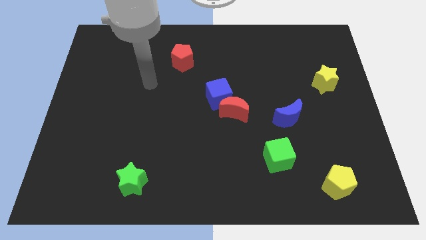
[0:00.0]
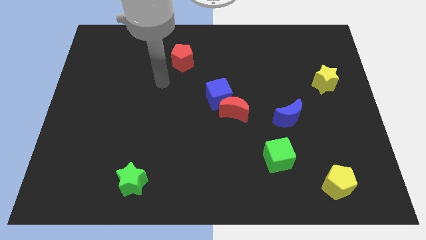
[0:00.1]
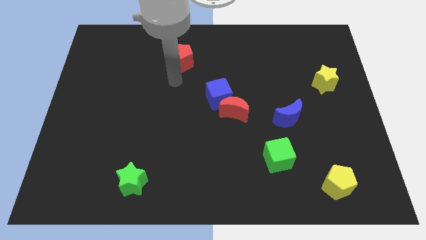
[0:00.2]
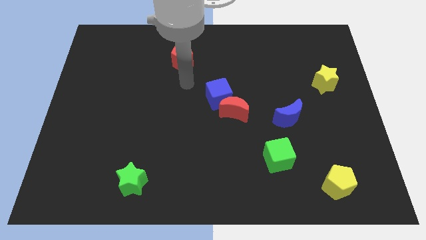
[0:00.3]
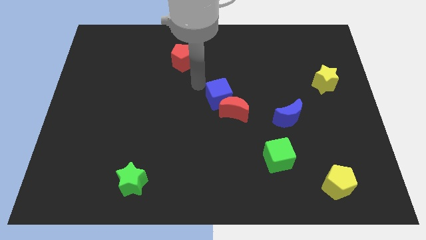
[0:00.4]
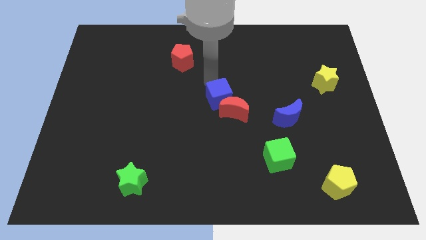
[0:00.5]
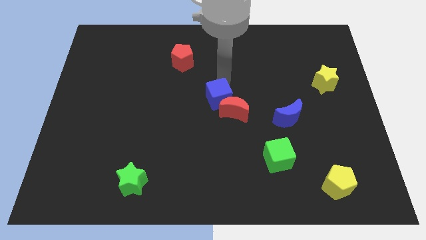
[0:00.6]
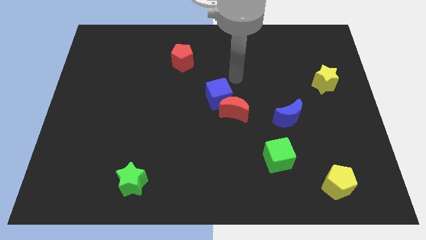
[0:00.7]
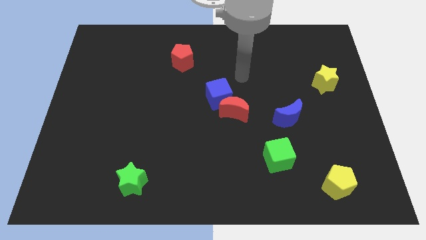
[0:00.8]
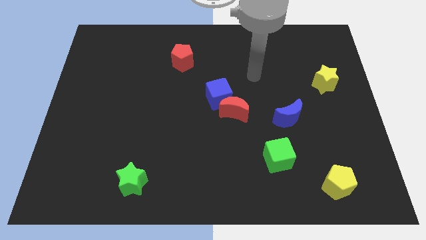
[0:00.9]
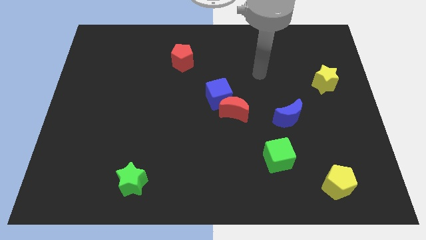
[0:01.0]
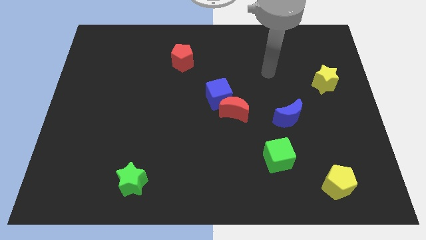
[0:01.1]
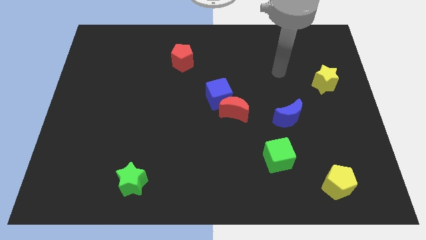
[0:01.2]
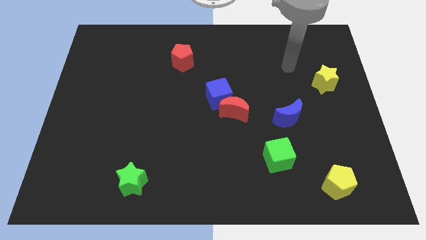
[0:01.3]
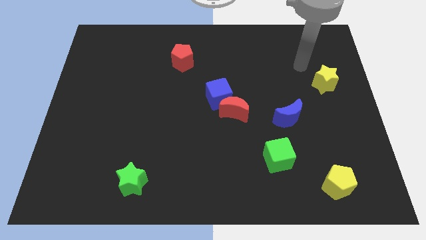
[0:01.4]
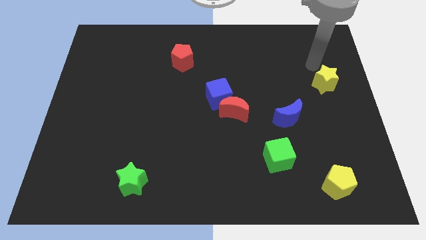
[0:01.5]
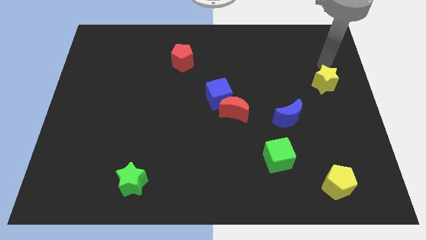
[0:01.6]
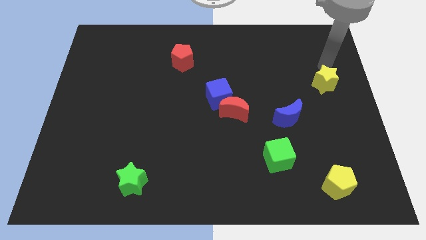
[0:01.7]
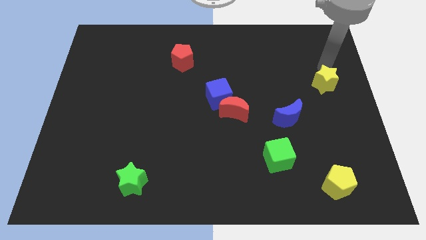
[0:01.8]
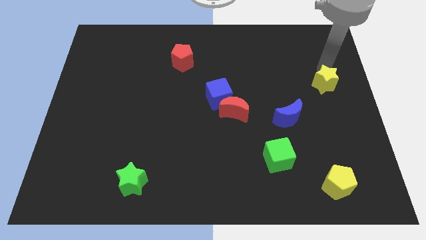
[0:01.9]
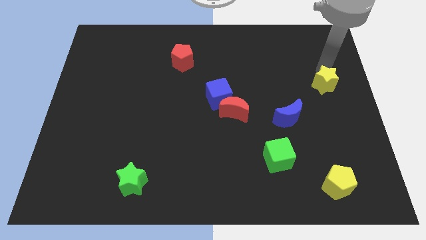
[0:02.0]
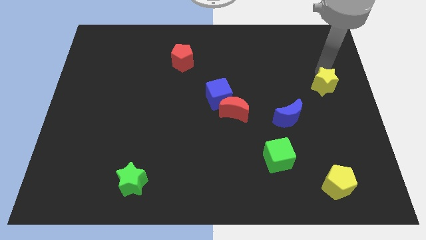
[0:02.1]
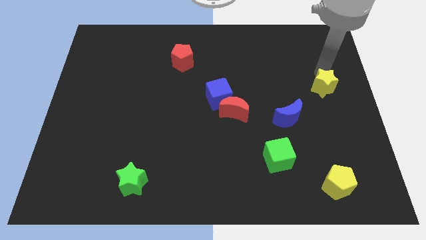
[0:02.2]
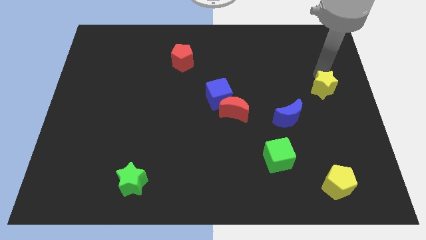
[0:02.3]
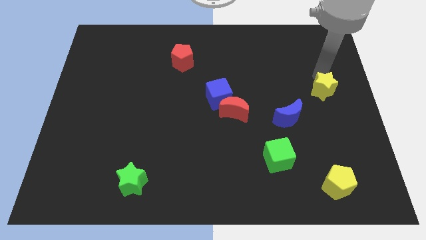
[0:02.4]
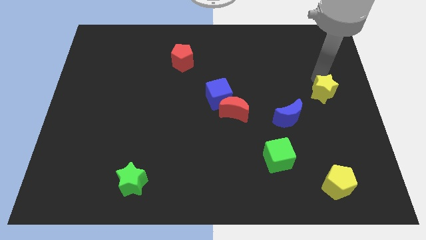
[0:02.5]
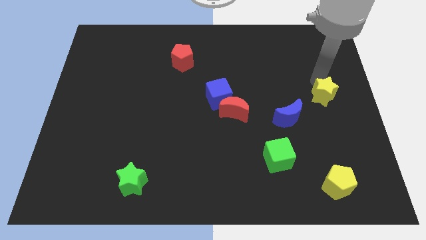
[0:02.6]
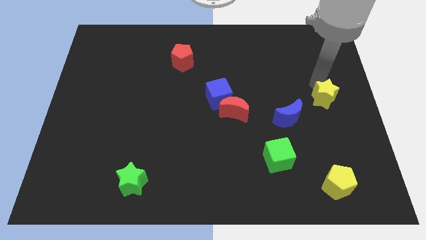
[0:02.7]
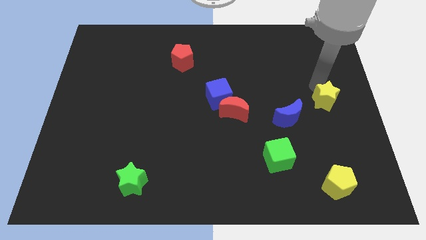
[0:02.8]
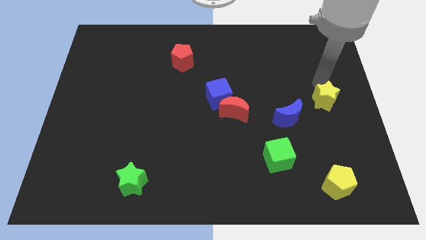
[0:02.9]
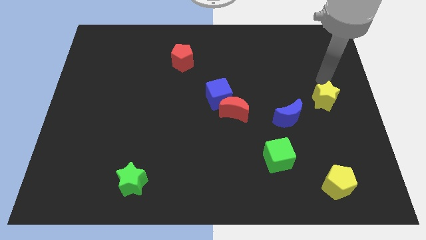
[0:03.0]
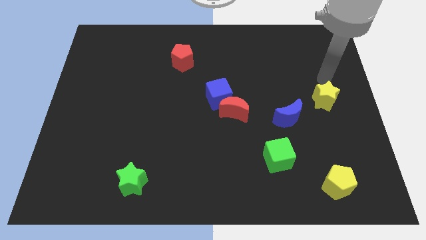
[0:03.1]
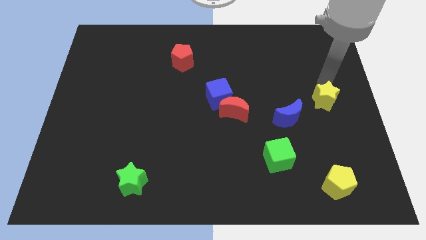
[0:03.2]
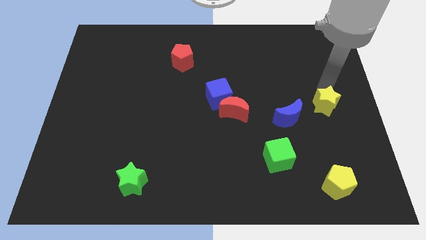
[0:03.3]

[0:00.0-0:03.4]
push the yellow star slightly down

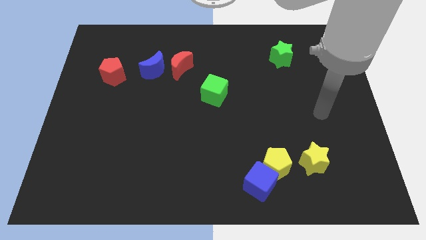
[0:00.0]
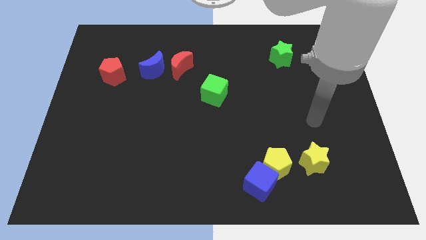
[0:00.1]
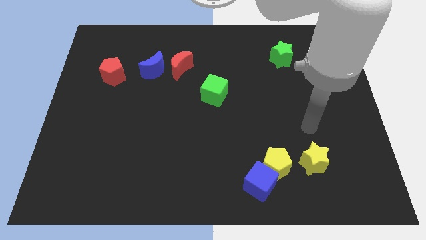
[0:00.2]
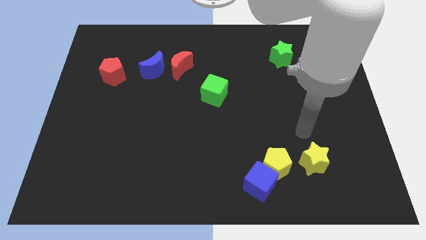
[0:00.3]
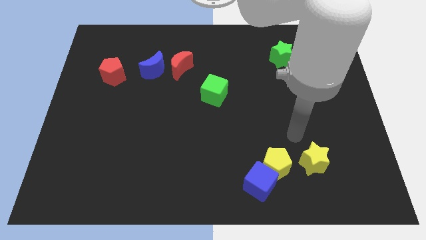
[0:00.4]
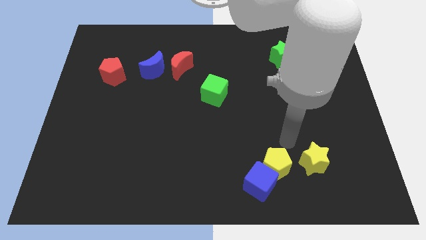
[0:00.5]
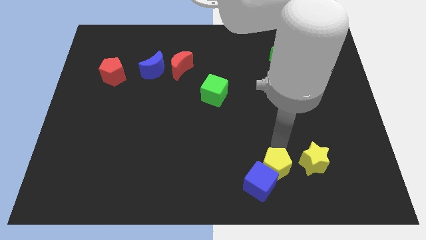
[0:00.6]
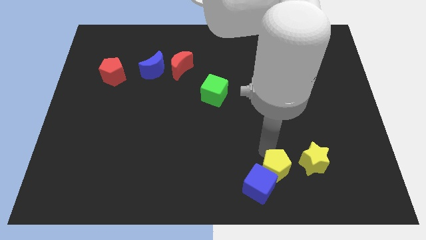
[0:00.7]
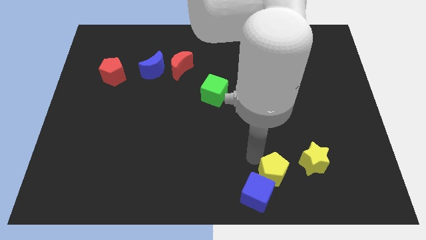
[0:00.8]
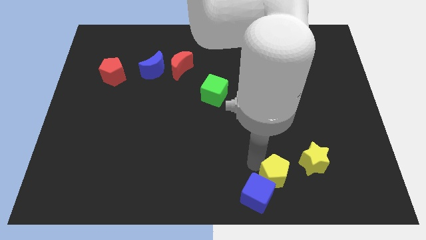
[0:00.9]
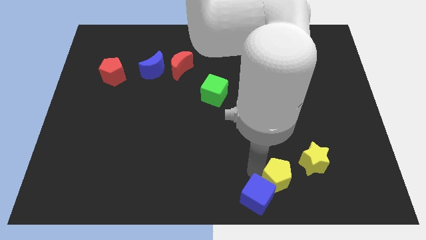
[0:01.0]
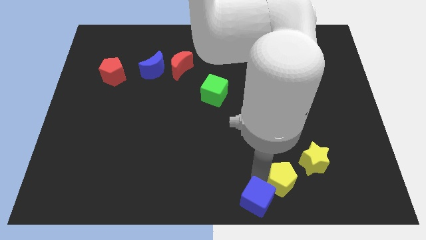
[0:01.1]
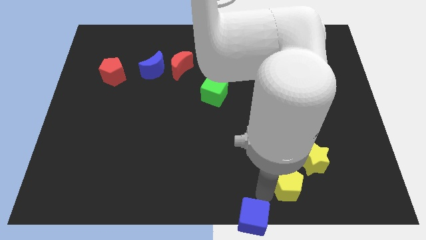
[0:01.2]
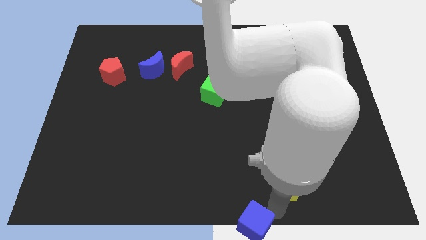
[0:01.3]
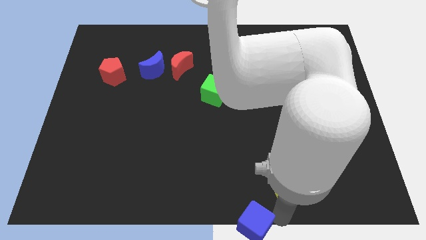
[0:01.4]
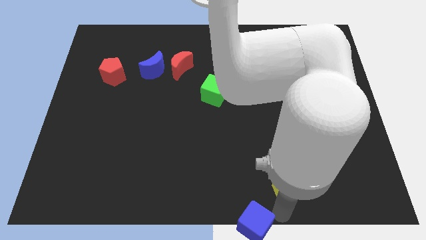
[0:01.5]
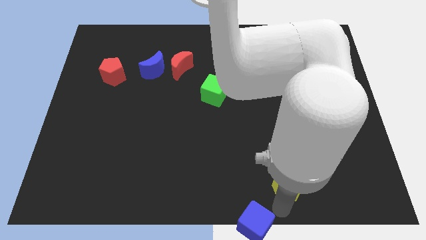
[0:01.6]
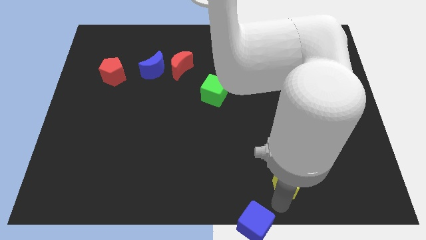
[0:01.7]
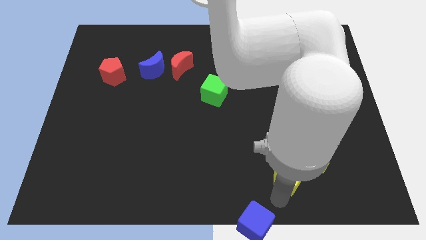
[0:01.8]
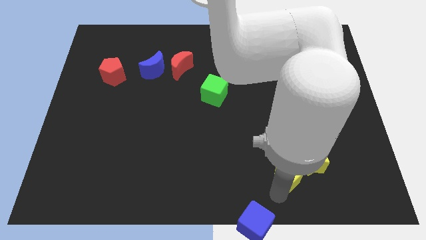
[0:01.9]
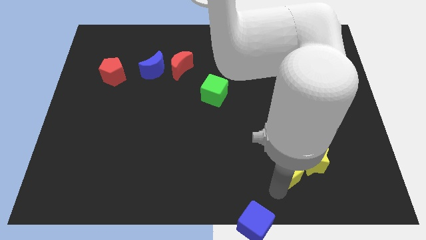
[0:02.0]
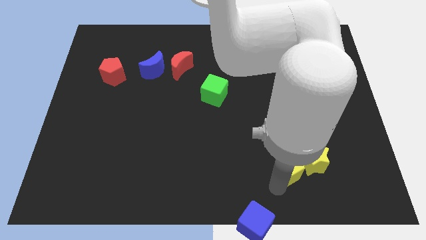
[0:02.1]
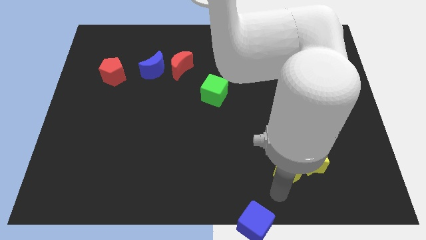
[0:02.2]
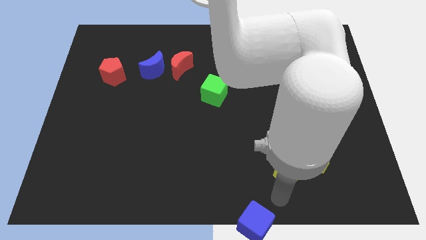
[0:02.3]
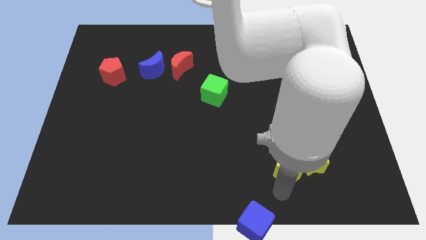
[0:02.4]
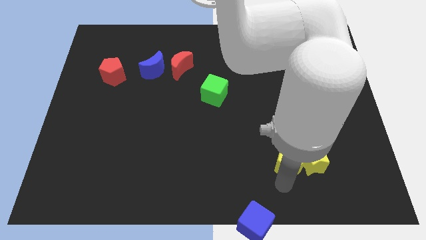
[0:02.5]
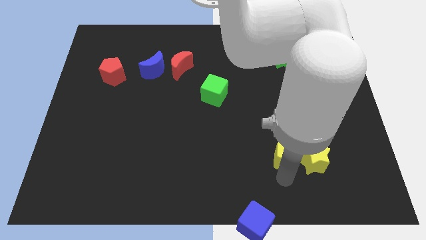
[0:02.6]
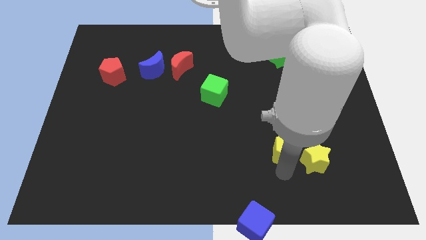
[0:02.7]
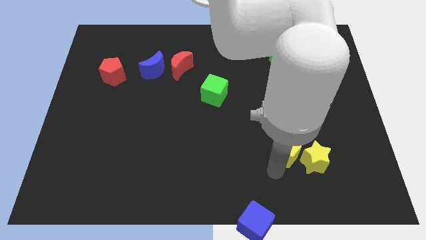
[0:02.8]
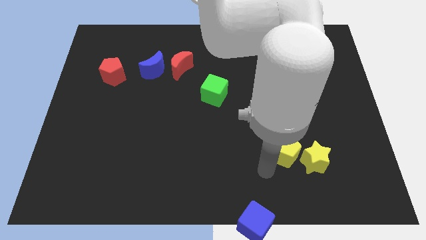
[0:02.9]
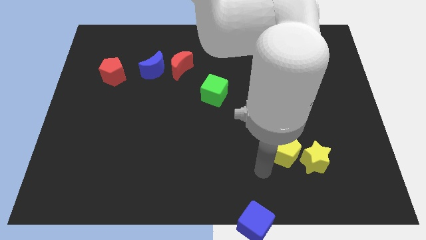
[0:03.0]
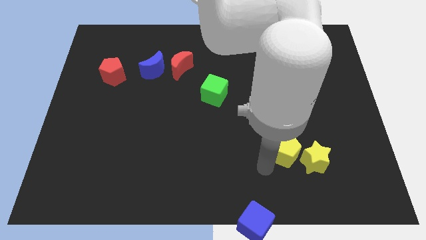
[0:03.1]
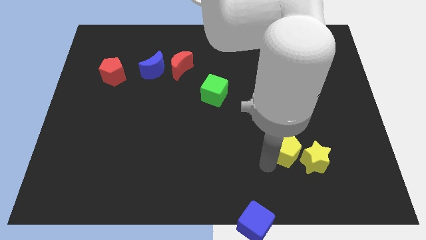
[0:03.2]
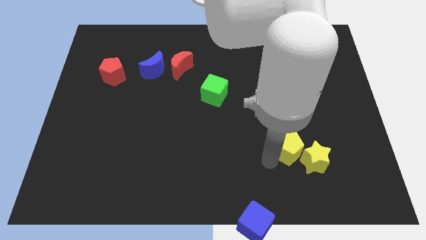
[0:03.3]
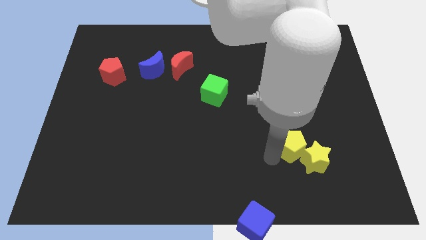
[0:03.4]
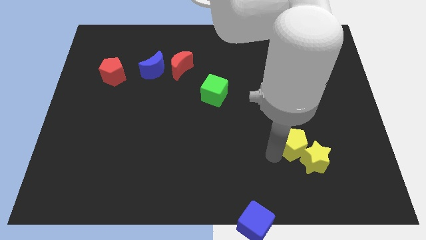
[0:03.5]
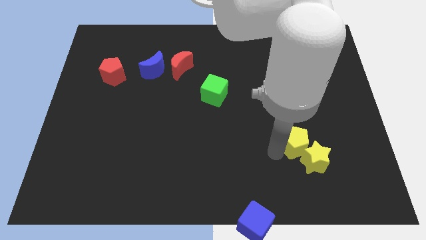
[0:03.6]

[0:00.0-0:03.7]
slide the yellow pentagon a bit up and right diagonally

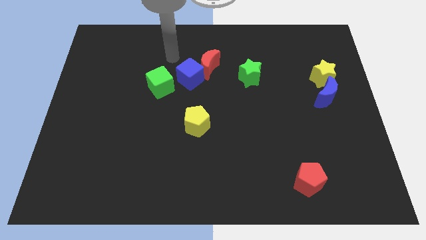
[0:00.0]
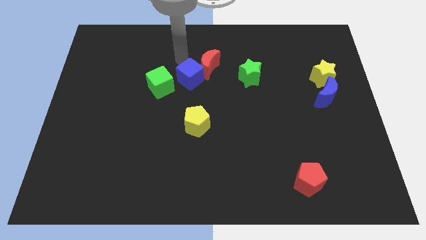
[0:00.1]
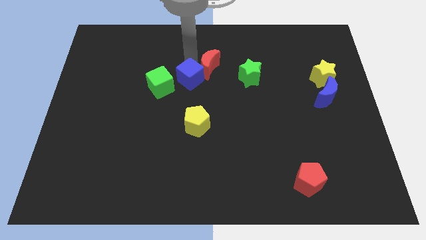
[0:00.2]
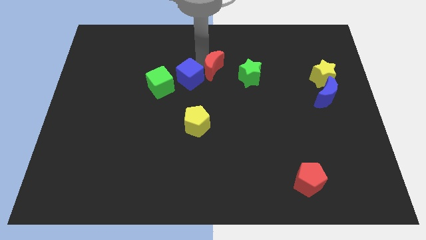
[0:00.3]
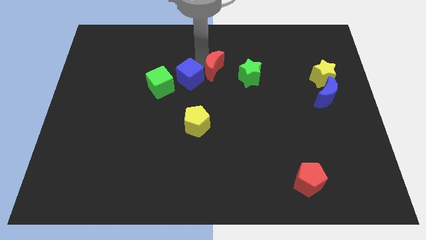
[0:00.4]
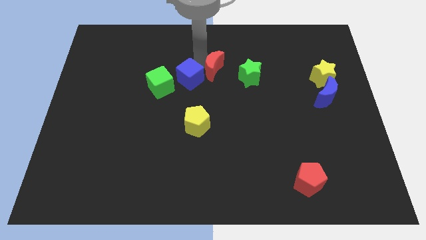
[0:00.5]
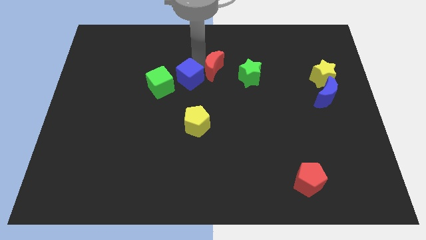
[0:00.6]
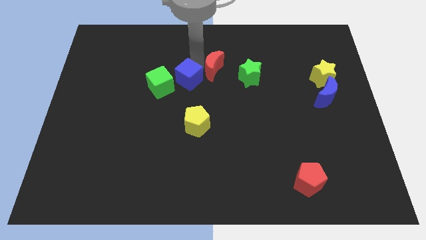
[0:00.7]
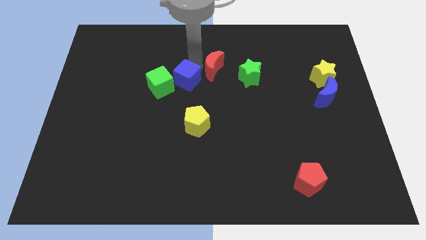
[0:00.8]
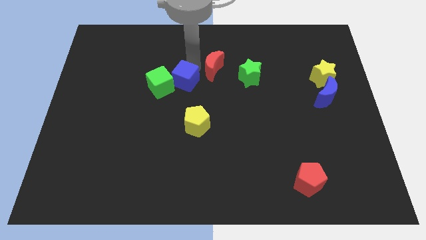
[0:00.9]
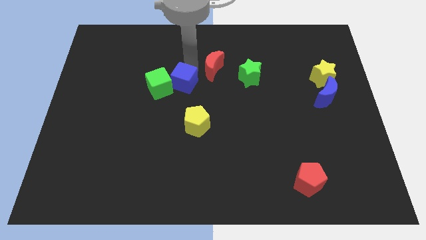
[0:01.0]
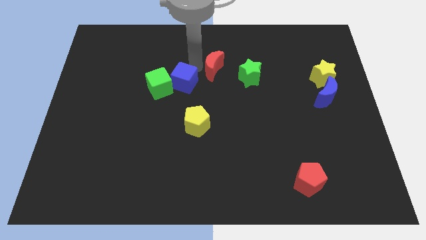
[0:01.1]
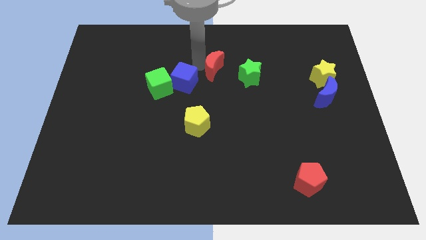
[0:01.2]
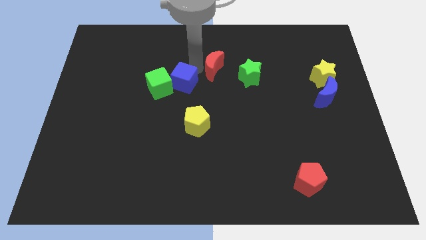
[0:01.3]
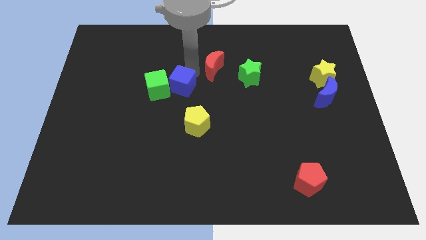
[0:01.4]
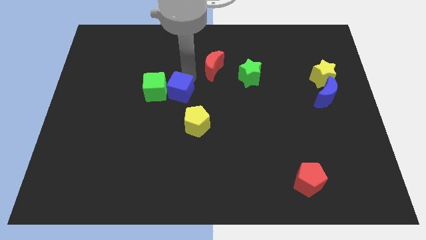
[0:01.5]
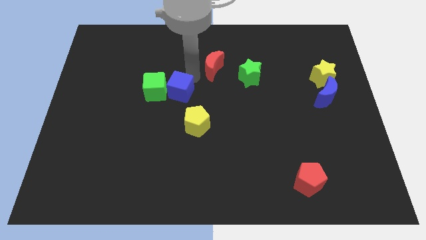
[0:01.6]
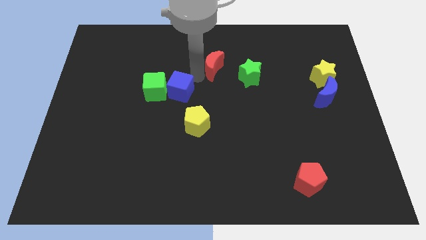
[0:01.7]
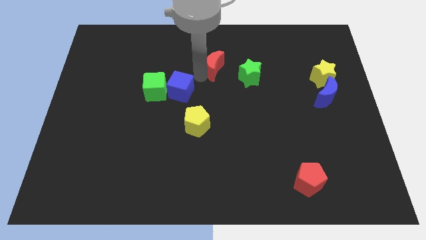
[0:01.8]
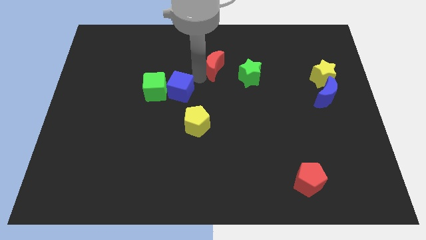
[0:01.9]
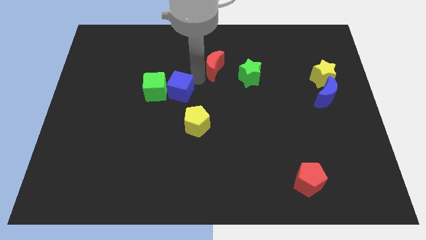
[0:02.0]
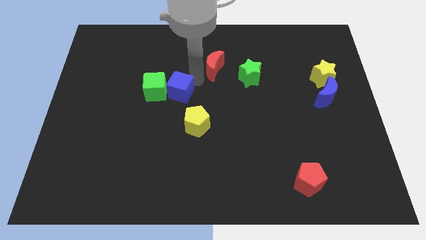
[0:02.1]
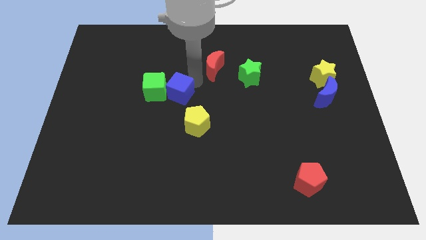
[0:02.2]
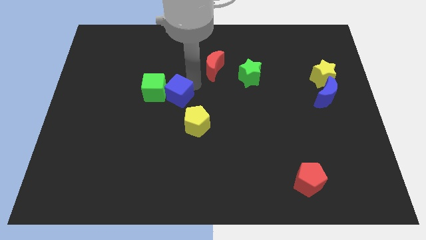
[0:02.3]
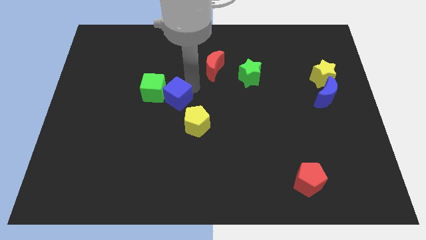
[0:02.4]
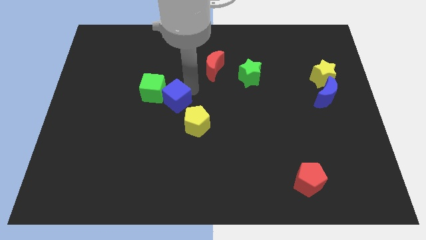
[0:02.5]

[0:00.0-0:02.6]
slightly push the blue cube down and to the left diagonally
